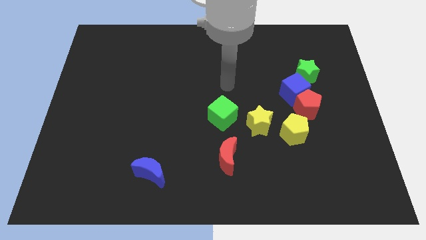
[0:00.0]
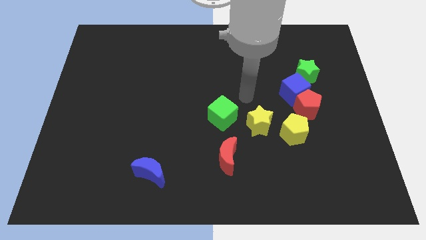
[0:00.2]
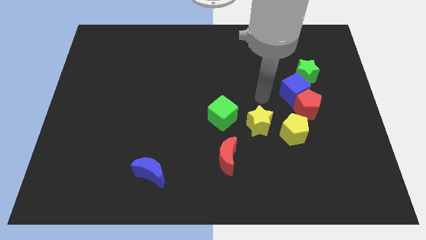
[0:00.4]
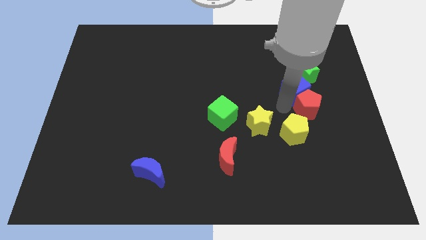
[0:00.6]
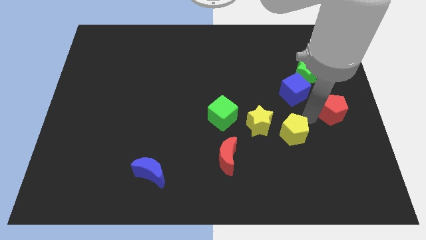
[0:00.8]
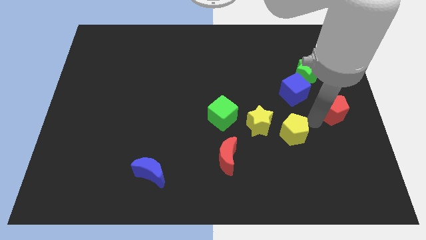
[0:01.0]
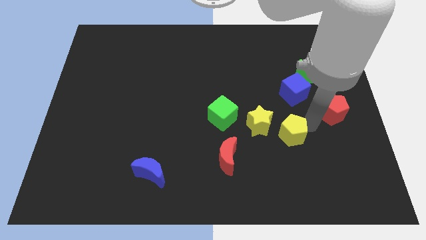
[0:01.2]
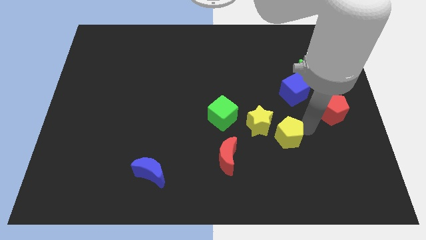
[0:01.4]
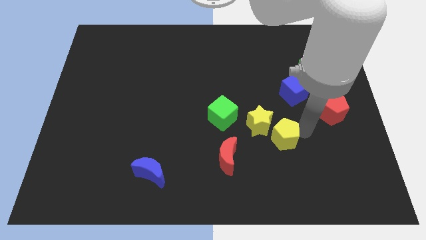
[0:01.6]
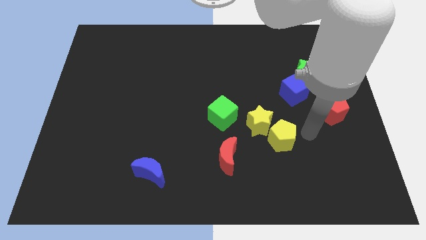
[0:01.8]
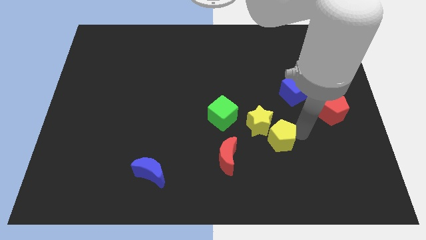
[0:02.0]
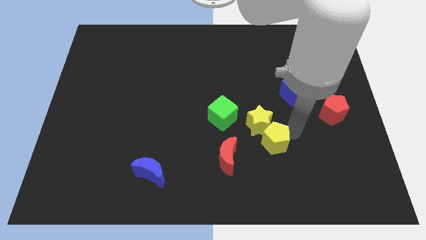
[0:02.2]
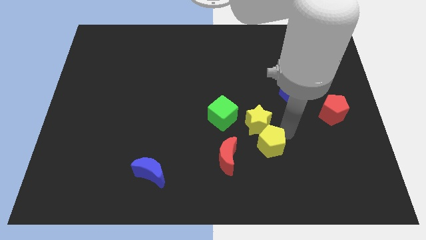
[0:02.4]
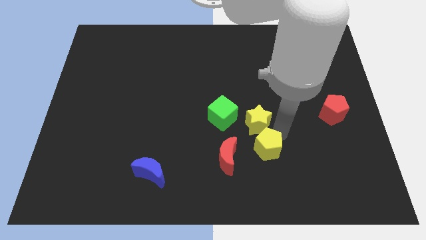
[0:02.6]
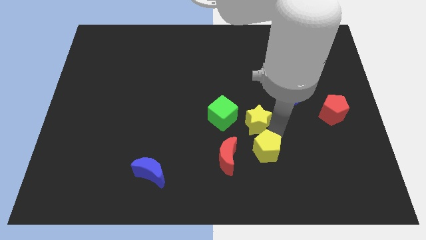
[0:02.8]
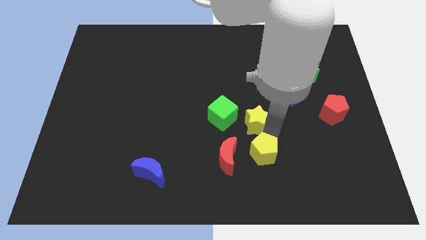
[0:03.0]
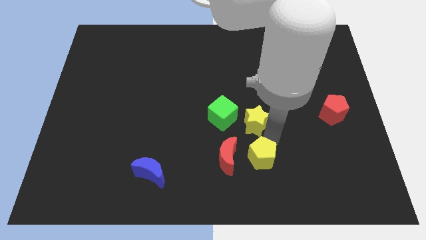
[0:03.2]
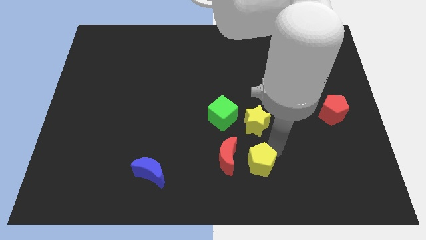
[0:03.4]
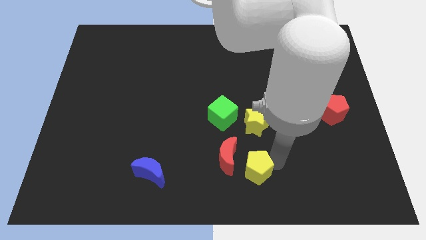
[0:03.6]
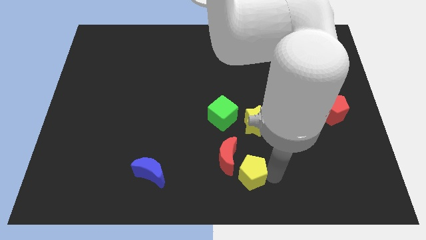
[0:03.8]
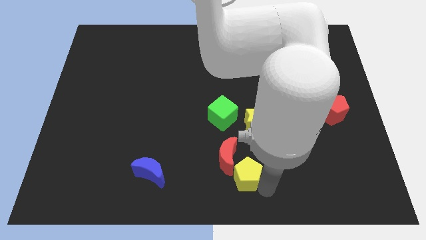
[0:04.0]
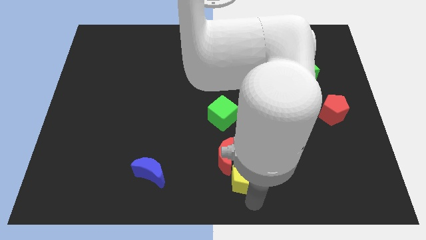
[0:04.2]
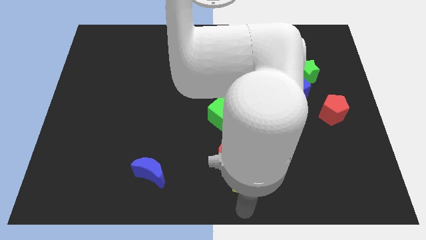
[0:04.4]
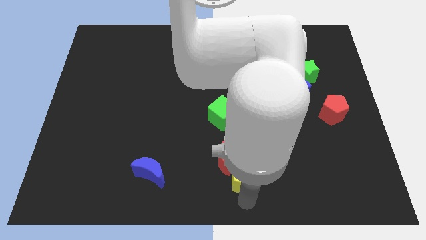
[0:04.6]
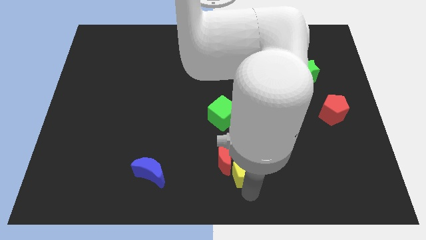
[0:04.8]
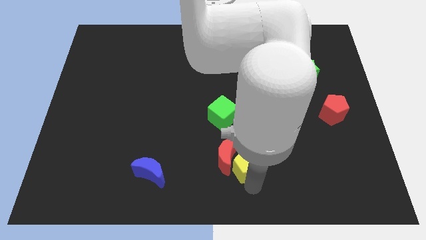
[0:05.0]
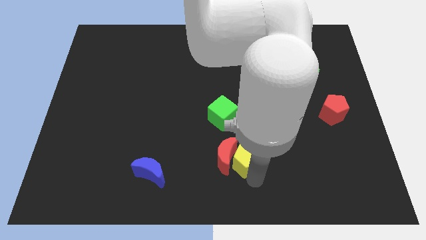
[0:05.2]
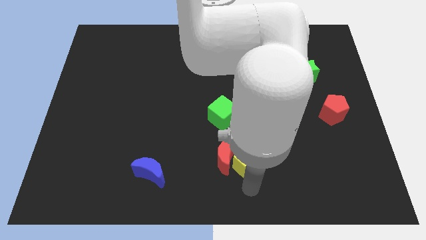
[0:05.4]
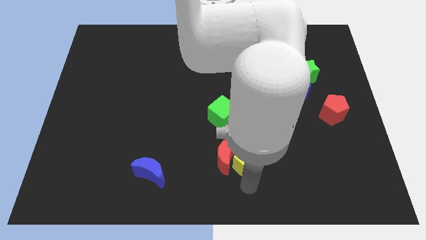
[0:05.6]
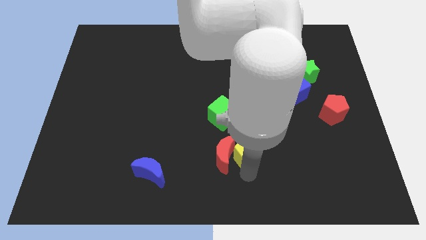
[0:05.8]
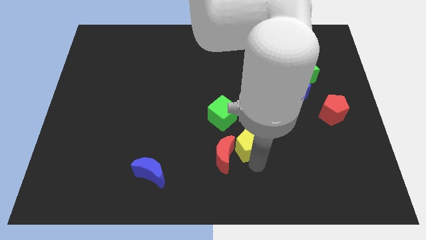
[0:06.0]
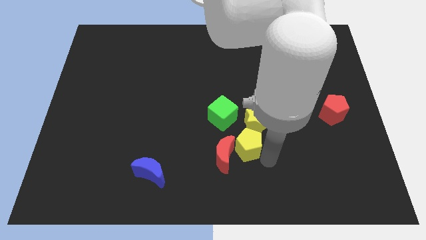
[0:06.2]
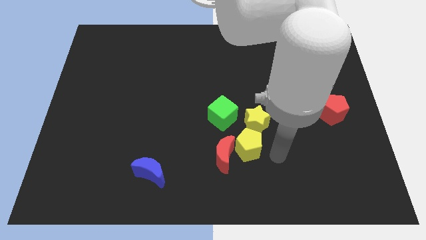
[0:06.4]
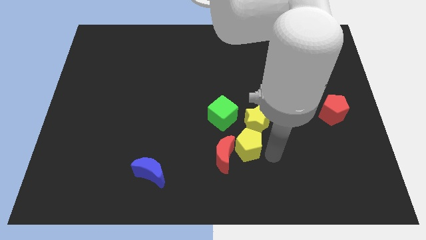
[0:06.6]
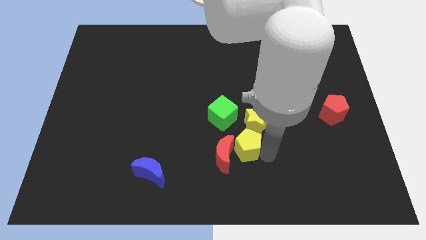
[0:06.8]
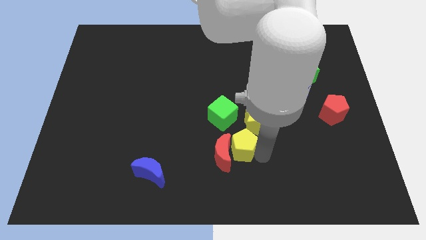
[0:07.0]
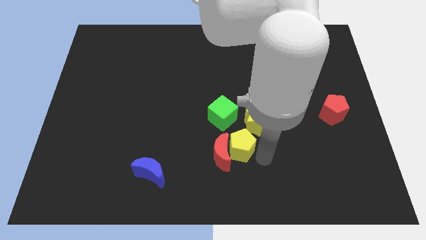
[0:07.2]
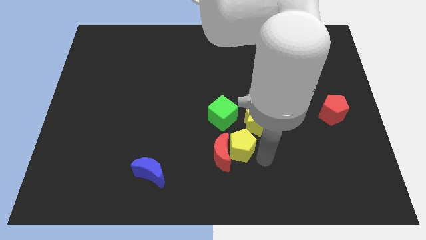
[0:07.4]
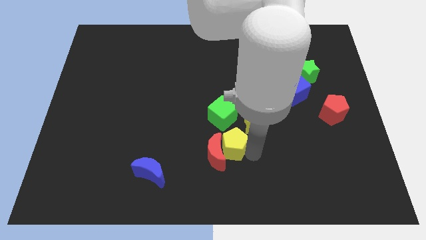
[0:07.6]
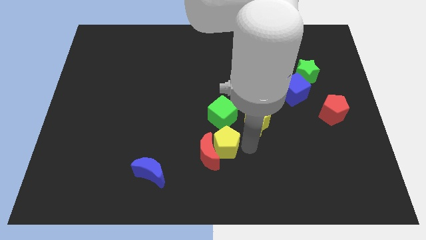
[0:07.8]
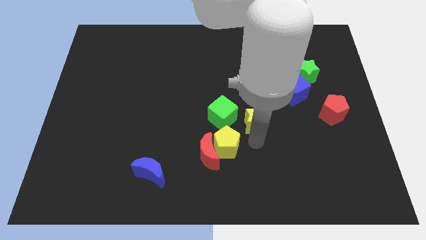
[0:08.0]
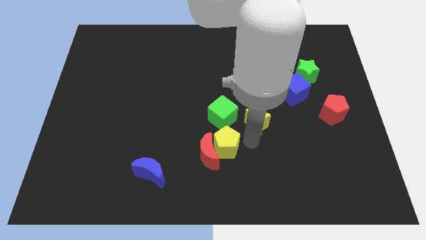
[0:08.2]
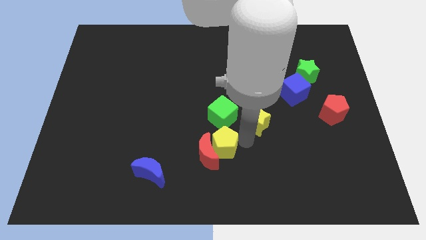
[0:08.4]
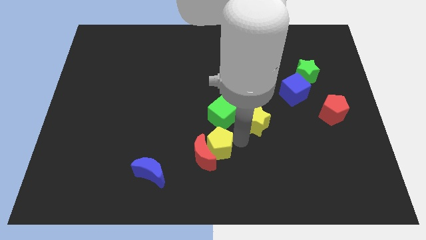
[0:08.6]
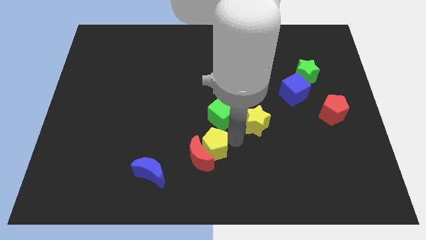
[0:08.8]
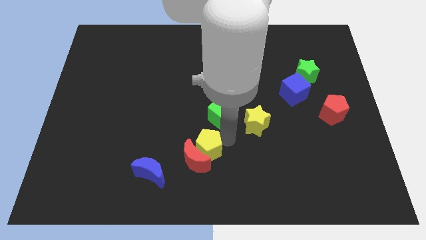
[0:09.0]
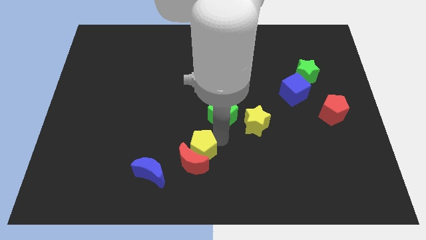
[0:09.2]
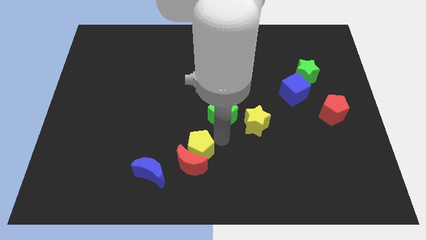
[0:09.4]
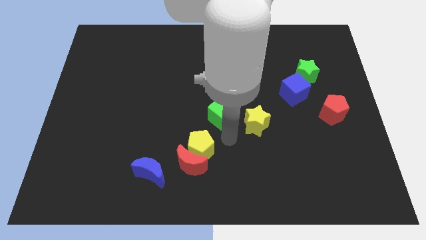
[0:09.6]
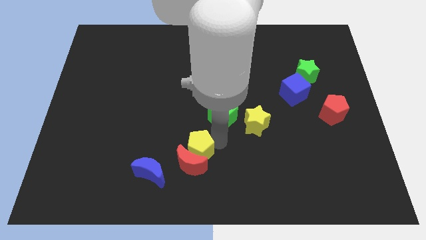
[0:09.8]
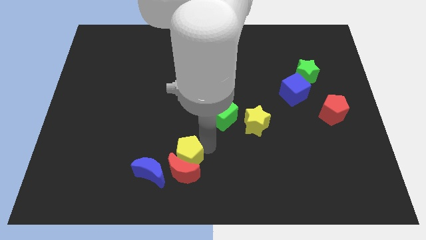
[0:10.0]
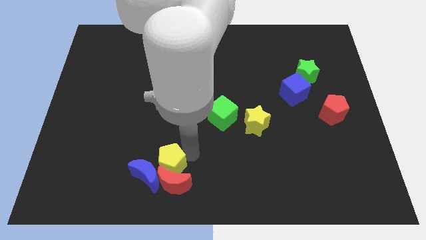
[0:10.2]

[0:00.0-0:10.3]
move the yellow pentagon to the blue moon

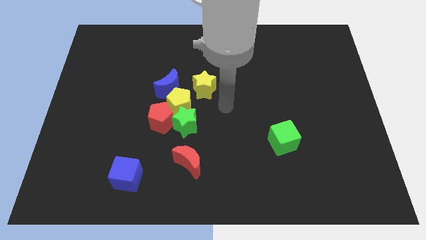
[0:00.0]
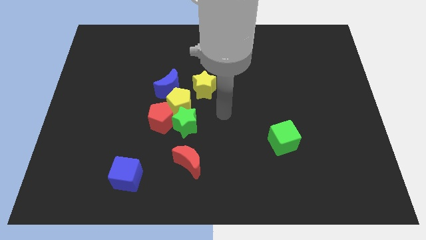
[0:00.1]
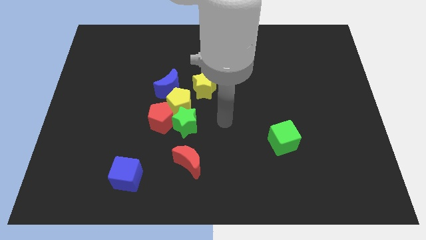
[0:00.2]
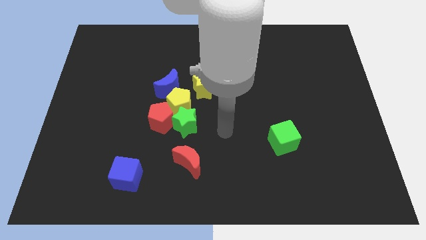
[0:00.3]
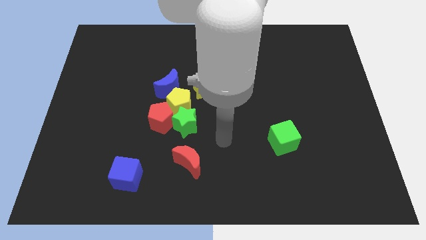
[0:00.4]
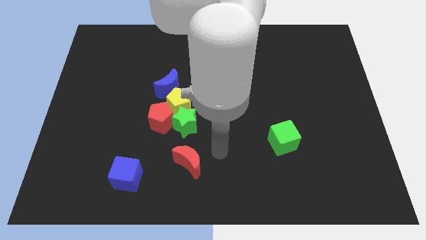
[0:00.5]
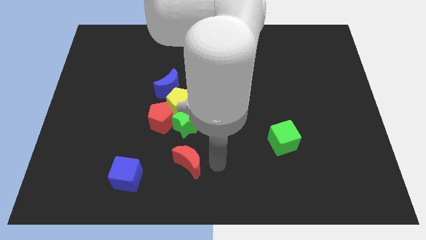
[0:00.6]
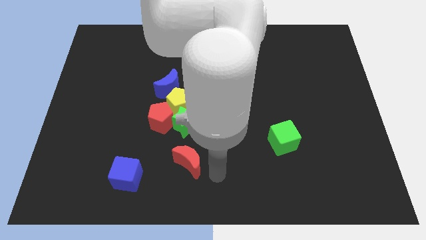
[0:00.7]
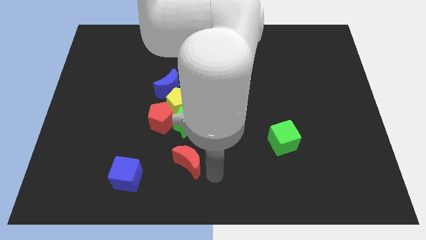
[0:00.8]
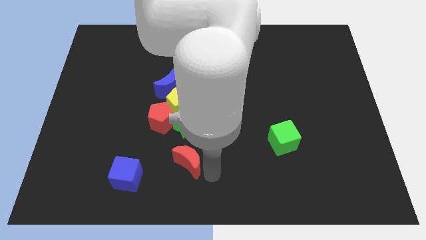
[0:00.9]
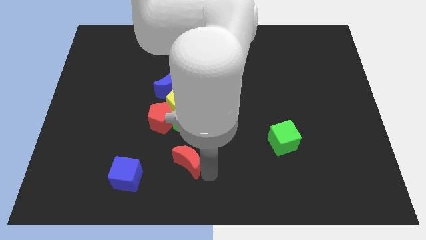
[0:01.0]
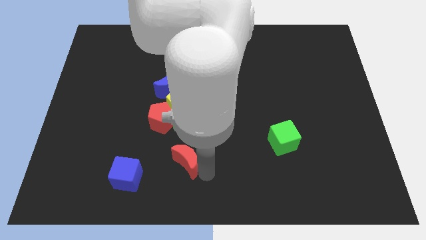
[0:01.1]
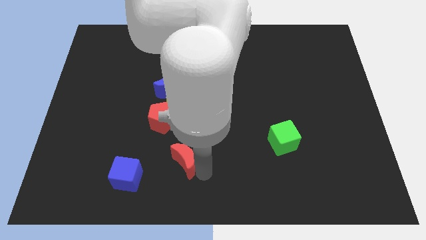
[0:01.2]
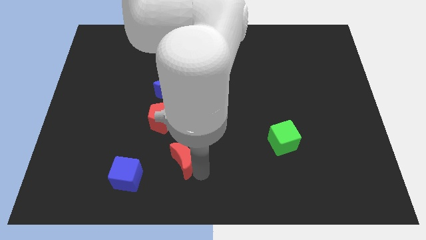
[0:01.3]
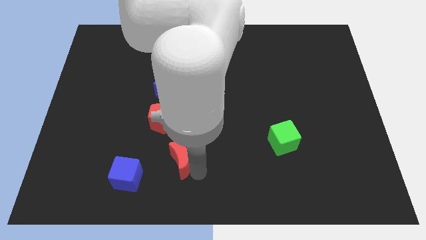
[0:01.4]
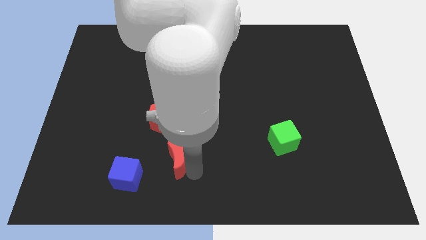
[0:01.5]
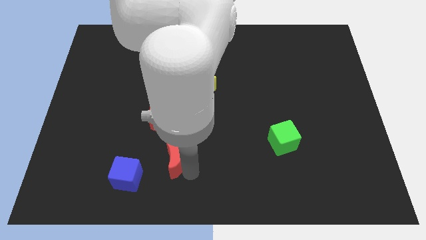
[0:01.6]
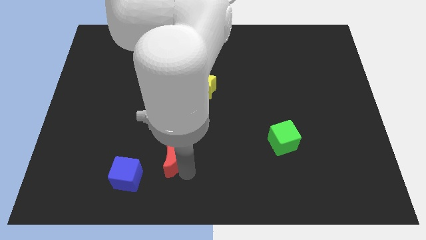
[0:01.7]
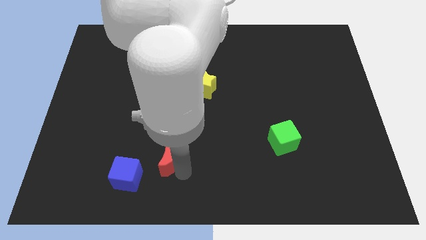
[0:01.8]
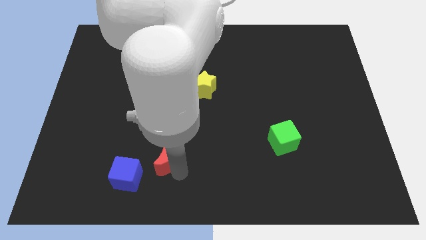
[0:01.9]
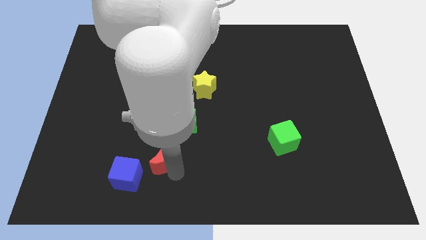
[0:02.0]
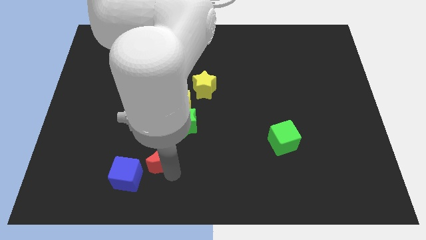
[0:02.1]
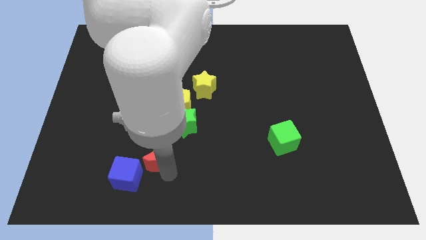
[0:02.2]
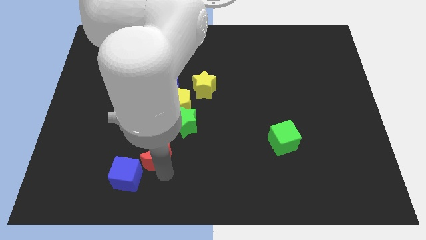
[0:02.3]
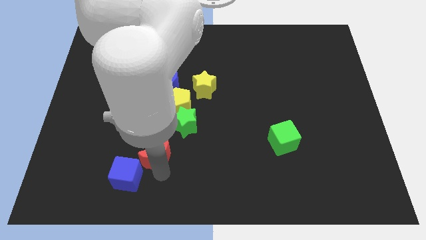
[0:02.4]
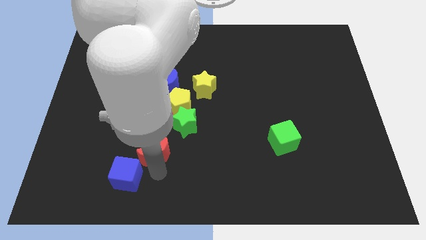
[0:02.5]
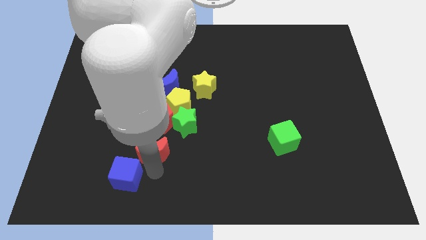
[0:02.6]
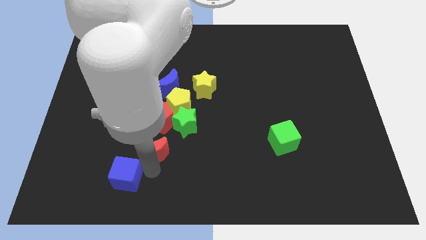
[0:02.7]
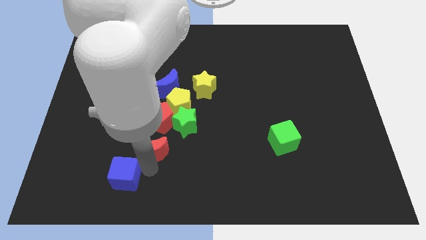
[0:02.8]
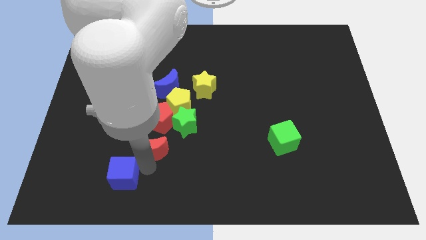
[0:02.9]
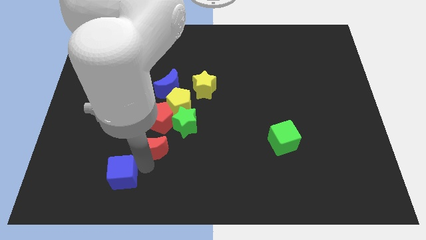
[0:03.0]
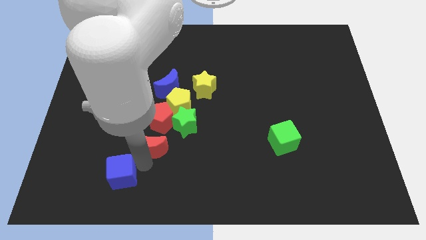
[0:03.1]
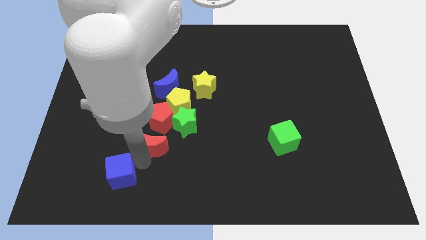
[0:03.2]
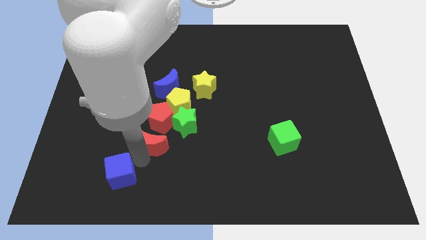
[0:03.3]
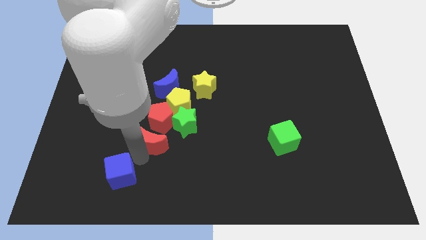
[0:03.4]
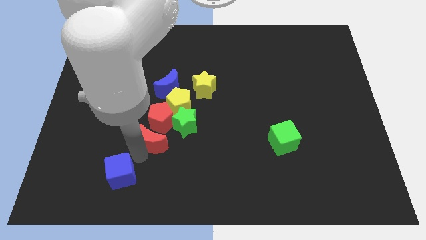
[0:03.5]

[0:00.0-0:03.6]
move the red moon towards the red pentagon
